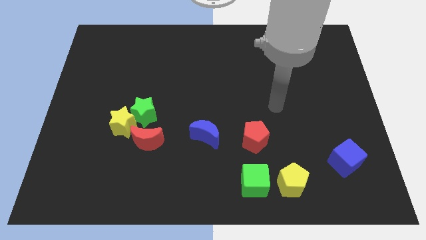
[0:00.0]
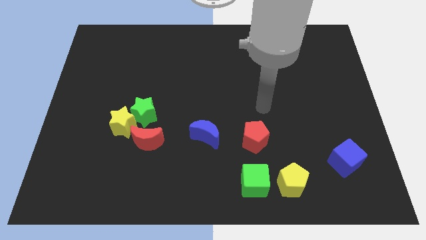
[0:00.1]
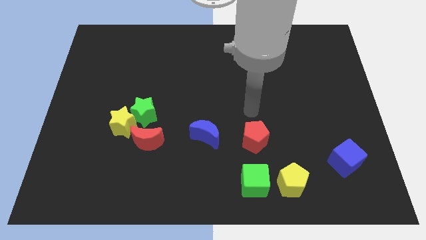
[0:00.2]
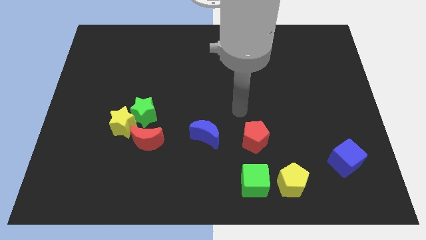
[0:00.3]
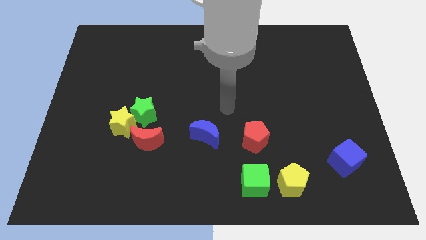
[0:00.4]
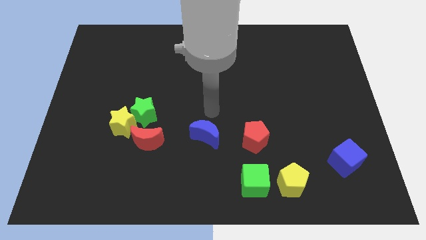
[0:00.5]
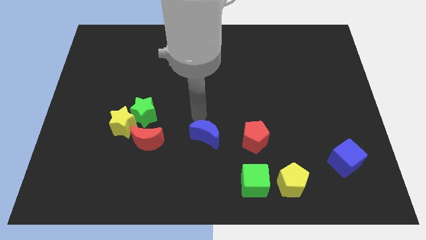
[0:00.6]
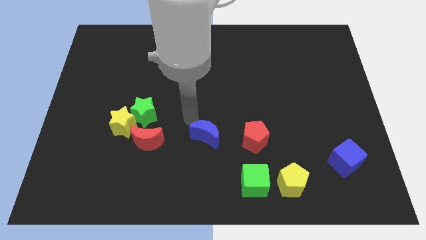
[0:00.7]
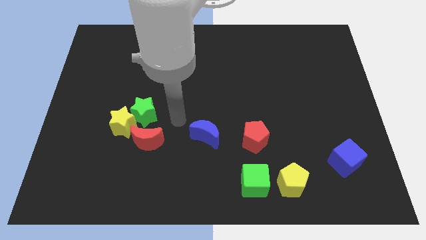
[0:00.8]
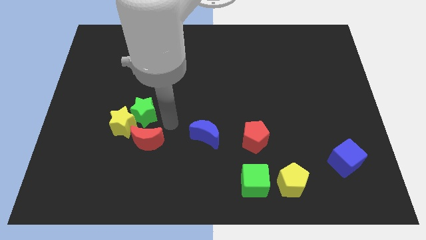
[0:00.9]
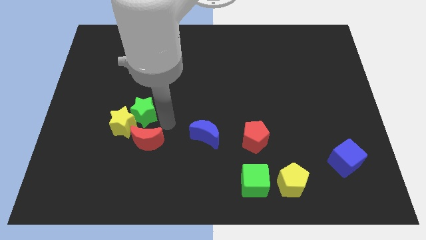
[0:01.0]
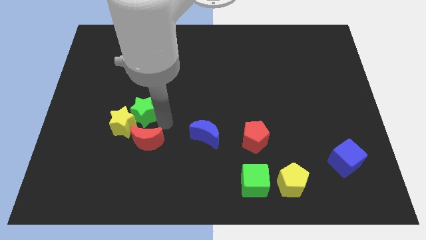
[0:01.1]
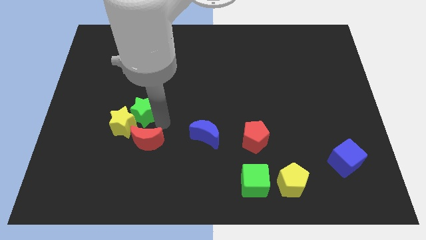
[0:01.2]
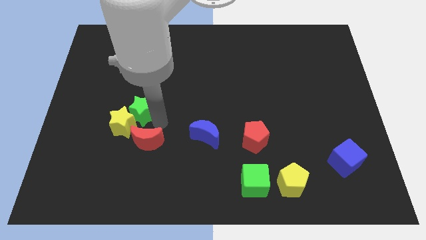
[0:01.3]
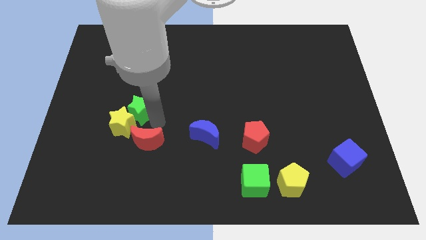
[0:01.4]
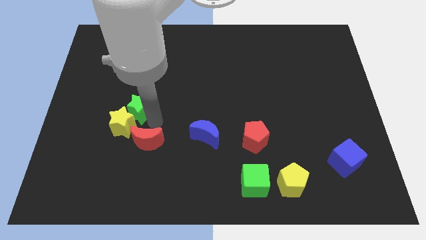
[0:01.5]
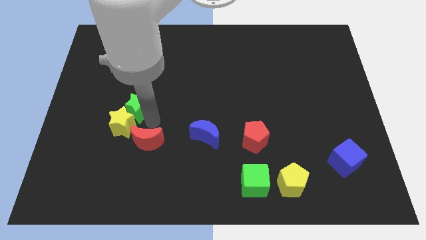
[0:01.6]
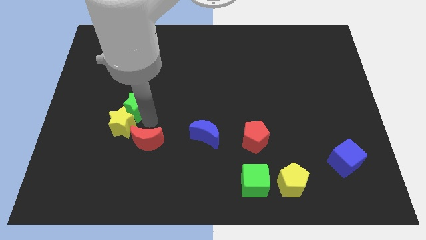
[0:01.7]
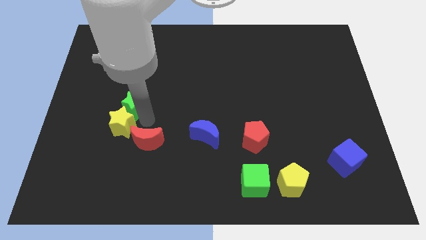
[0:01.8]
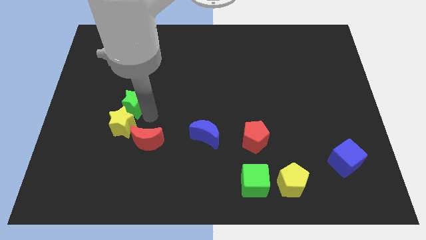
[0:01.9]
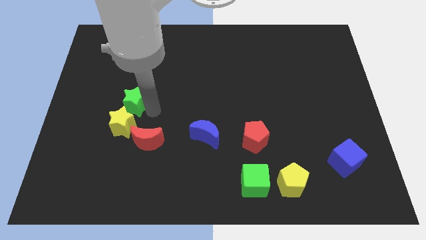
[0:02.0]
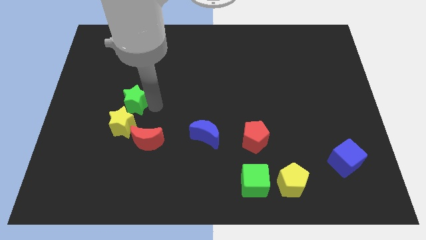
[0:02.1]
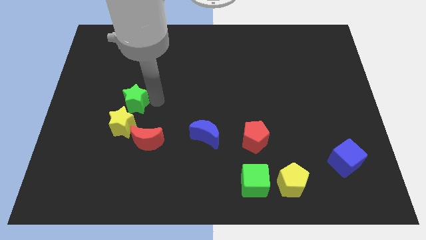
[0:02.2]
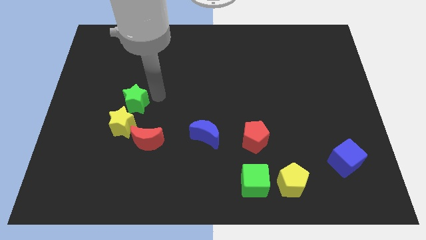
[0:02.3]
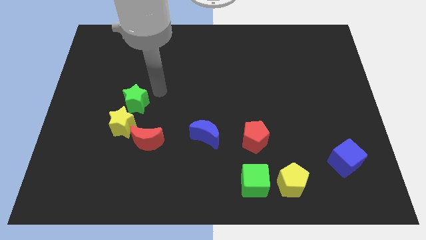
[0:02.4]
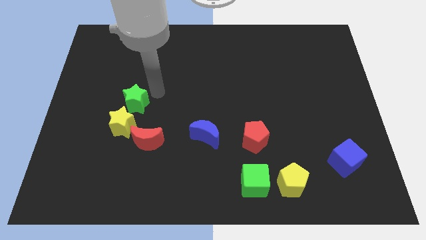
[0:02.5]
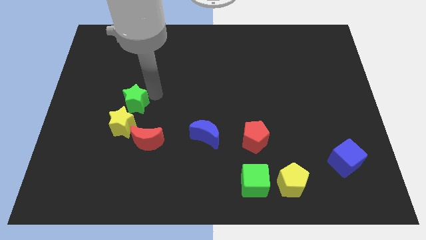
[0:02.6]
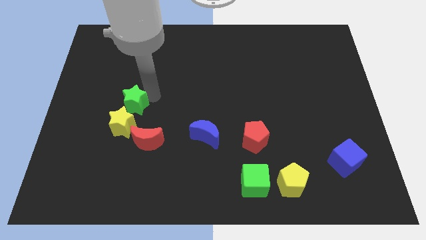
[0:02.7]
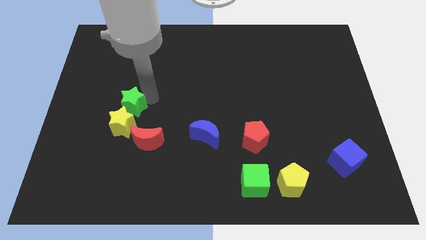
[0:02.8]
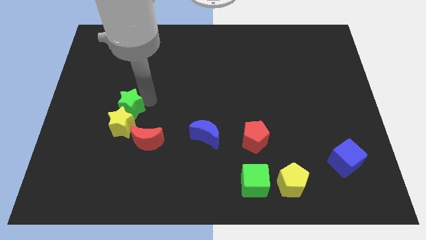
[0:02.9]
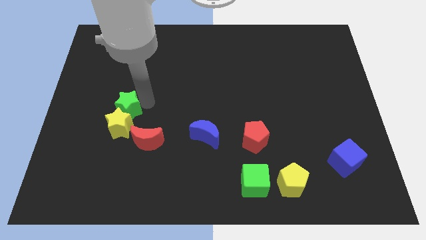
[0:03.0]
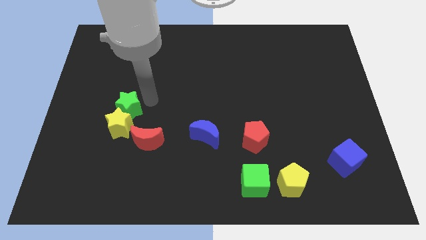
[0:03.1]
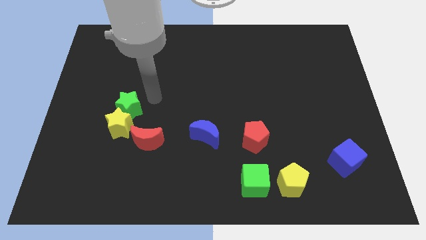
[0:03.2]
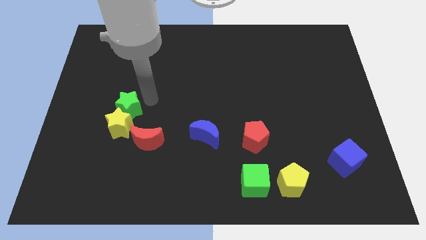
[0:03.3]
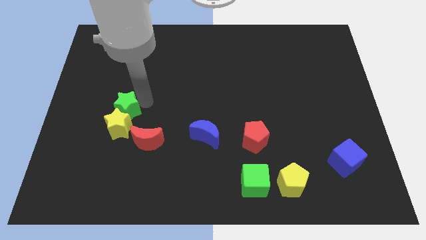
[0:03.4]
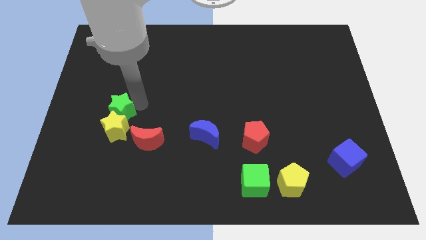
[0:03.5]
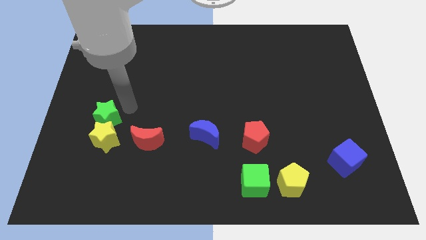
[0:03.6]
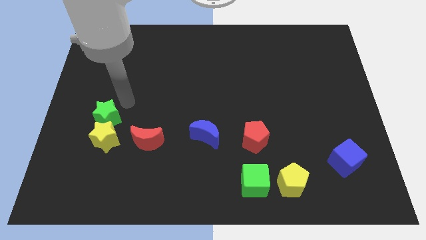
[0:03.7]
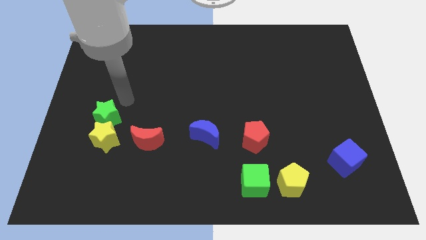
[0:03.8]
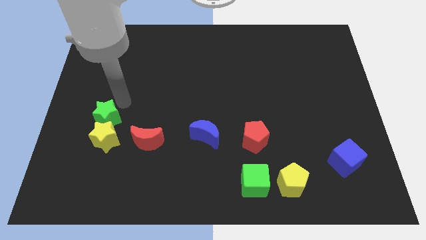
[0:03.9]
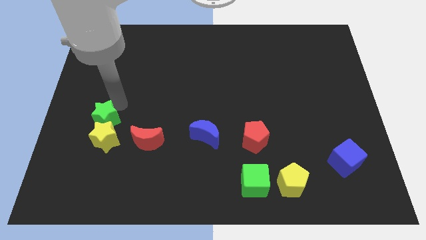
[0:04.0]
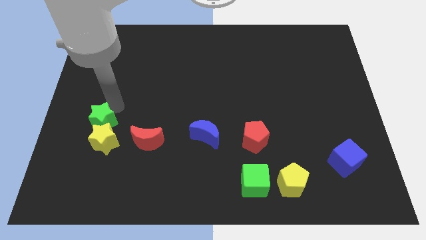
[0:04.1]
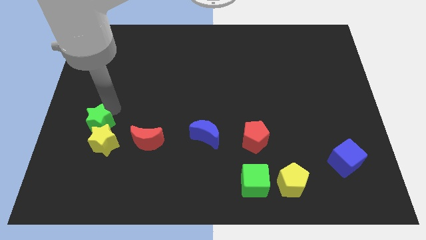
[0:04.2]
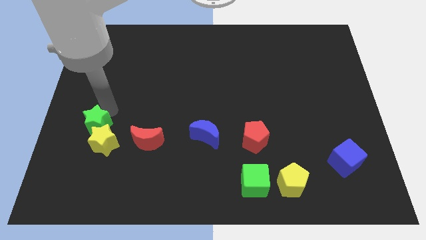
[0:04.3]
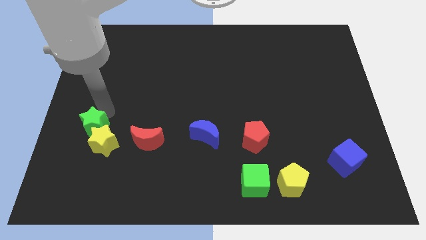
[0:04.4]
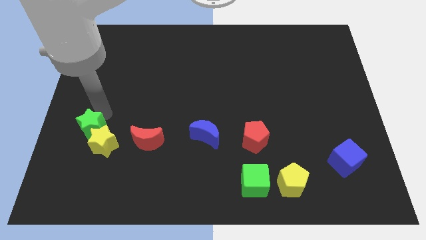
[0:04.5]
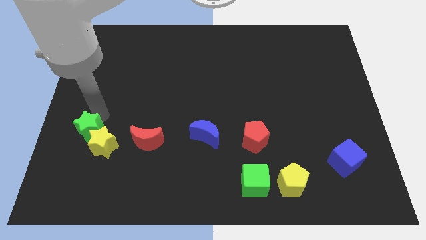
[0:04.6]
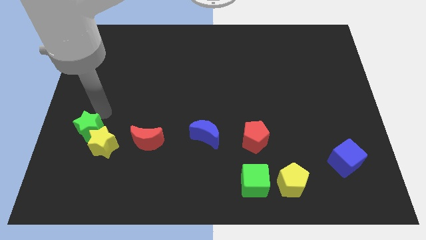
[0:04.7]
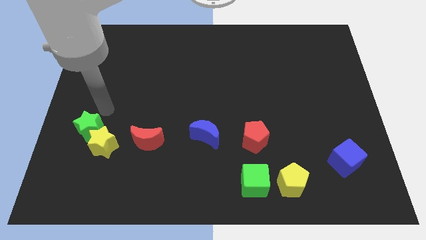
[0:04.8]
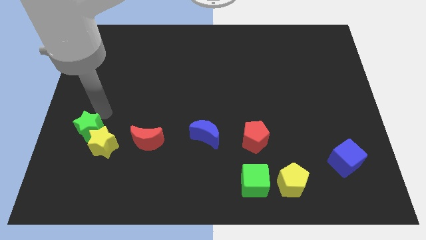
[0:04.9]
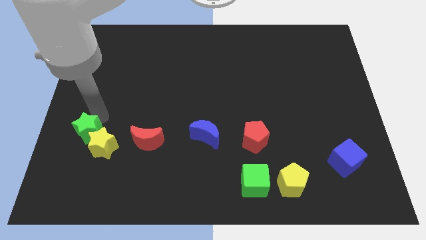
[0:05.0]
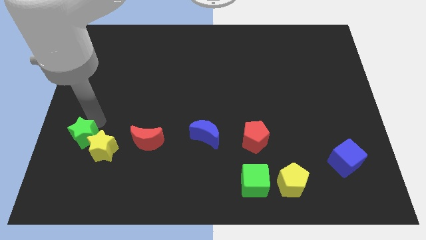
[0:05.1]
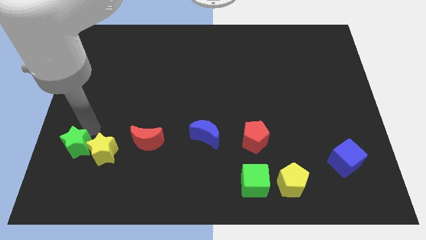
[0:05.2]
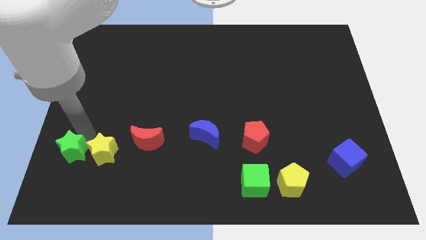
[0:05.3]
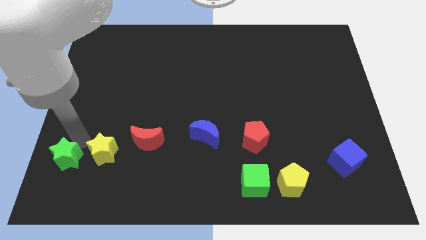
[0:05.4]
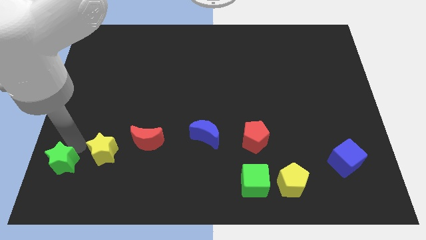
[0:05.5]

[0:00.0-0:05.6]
put the green star to the lower left corner
